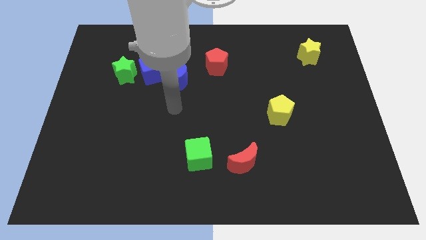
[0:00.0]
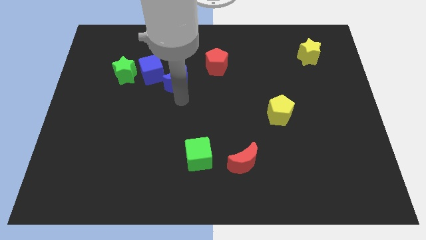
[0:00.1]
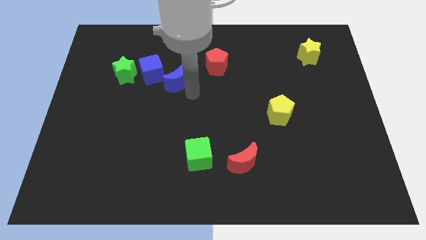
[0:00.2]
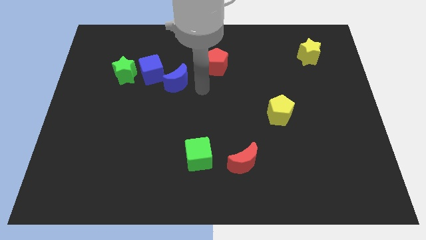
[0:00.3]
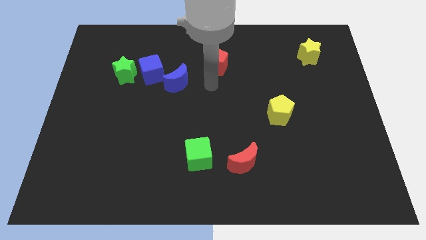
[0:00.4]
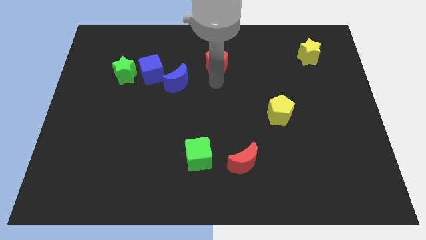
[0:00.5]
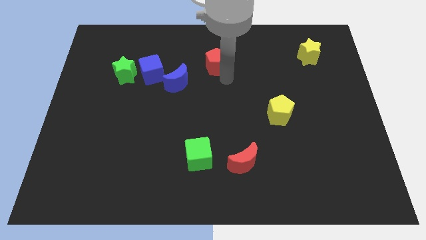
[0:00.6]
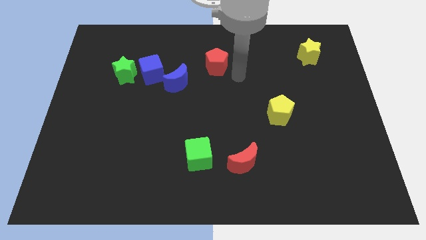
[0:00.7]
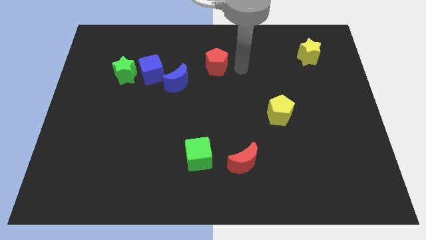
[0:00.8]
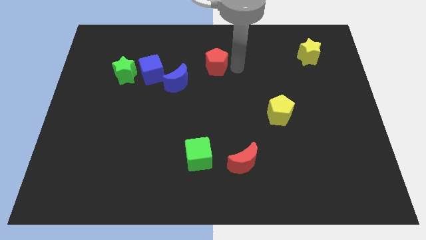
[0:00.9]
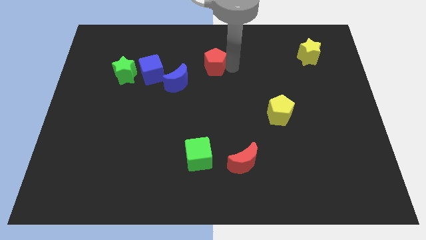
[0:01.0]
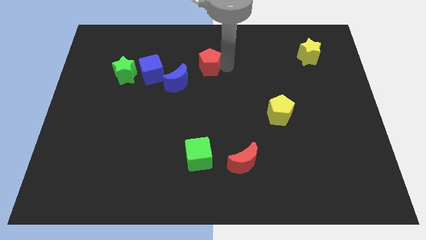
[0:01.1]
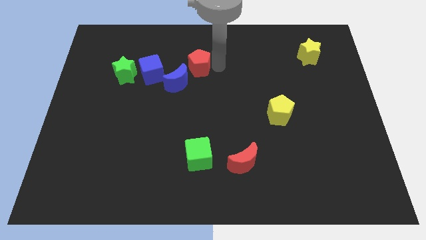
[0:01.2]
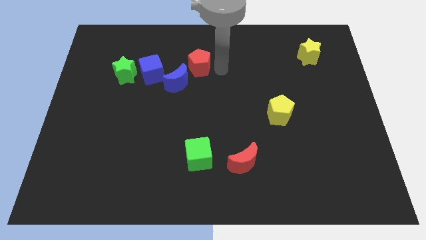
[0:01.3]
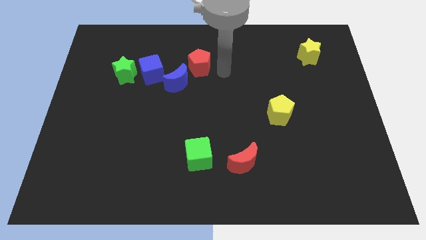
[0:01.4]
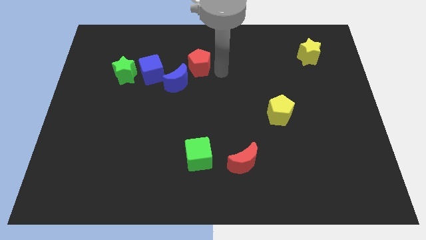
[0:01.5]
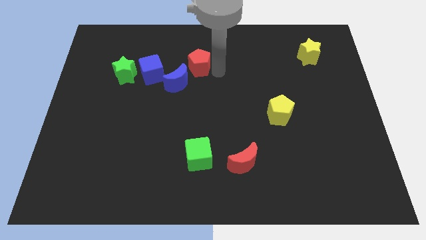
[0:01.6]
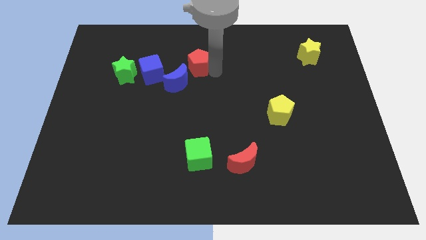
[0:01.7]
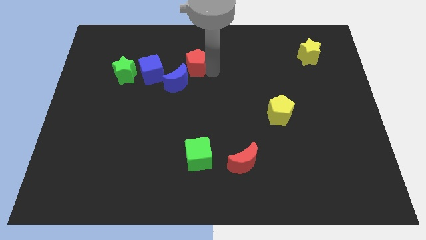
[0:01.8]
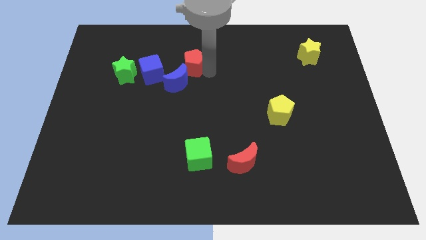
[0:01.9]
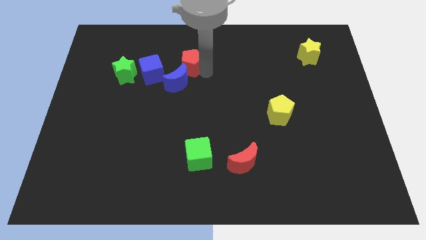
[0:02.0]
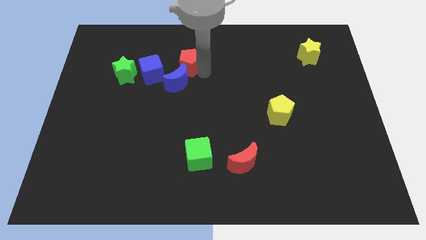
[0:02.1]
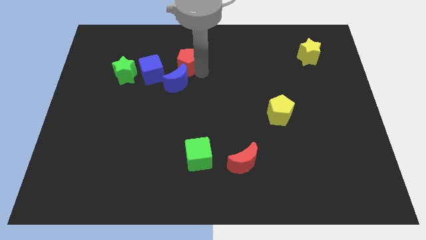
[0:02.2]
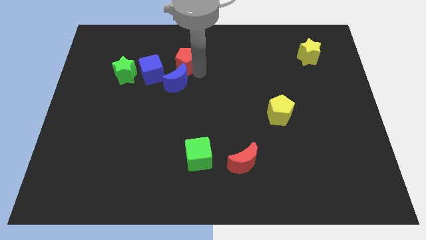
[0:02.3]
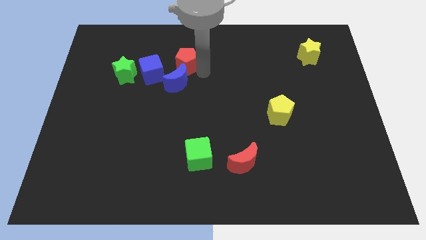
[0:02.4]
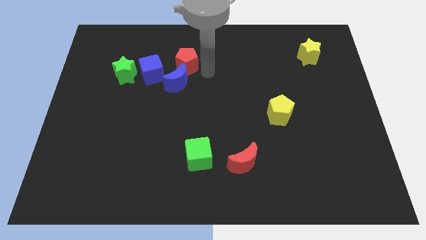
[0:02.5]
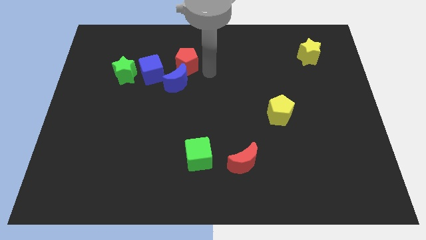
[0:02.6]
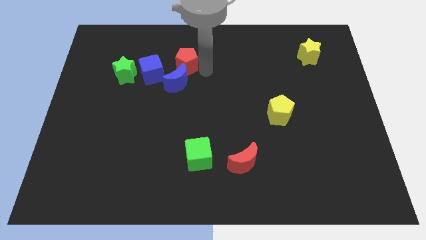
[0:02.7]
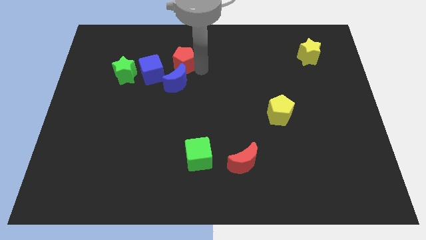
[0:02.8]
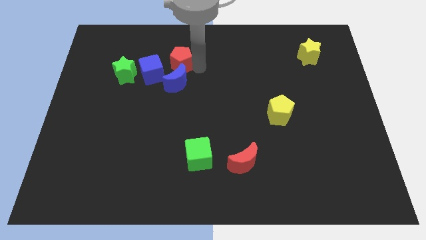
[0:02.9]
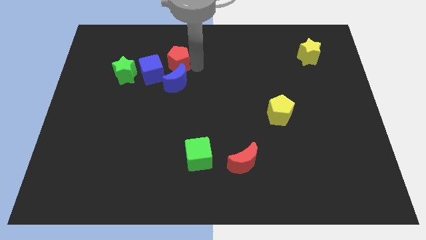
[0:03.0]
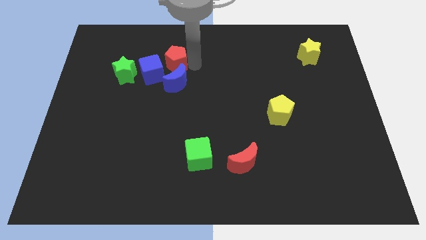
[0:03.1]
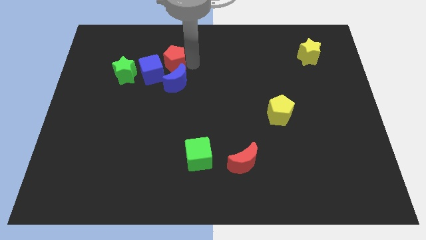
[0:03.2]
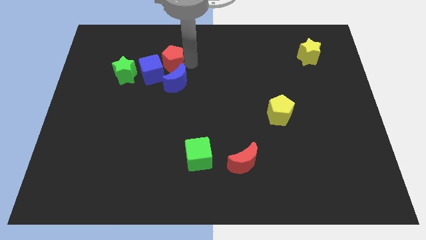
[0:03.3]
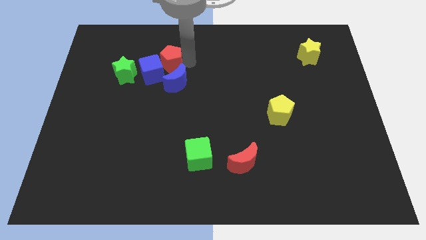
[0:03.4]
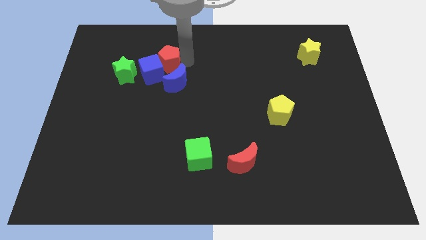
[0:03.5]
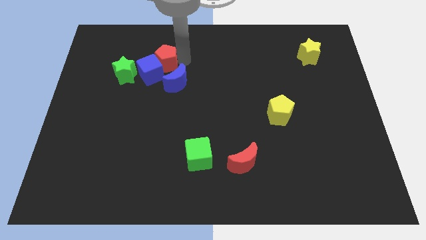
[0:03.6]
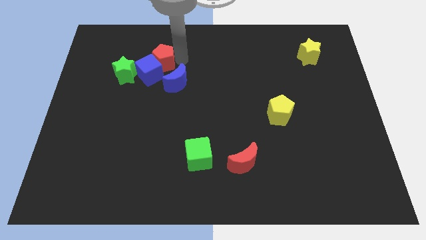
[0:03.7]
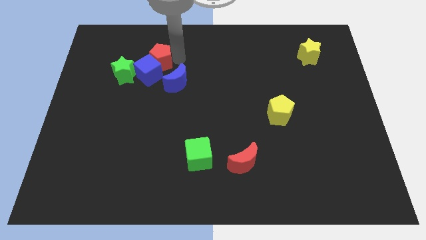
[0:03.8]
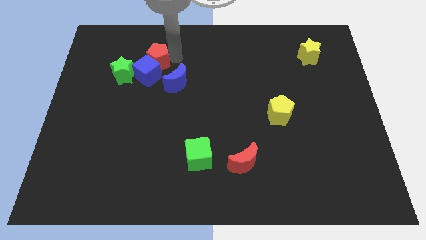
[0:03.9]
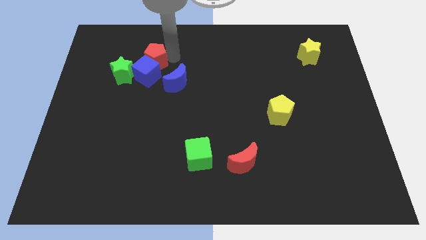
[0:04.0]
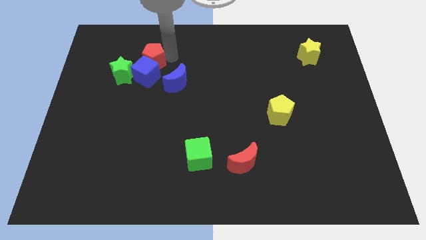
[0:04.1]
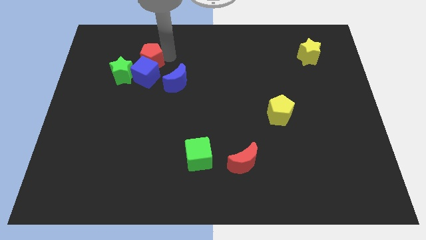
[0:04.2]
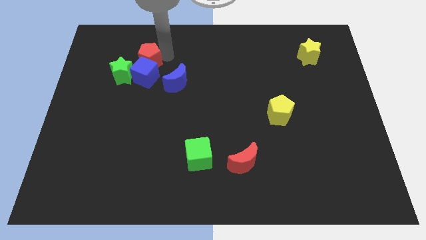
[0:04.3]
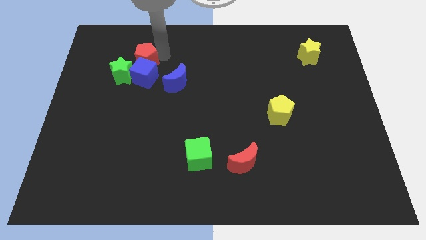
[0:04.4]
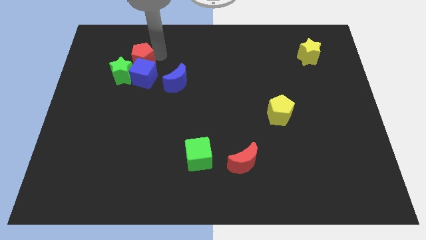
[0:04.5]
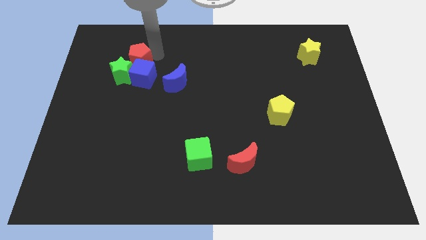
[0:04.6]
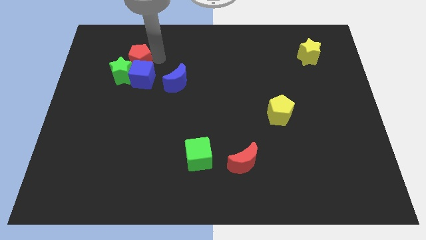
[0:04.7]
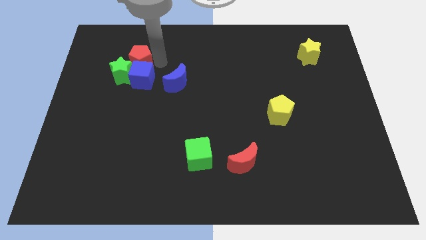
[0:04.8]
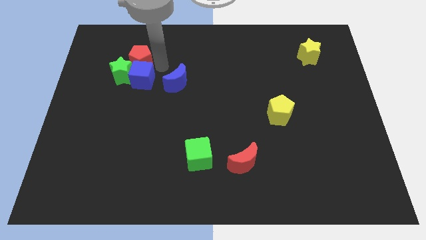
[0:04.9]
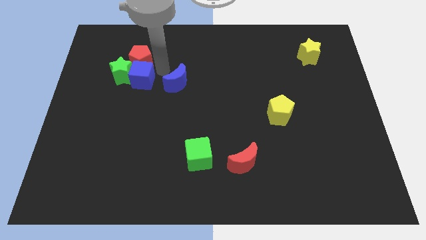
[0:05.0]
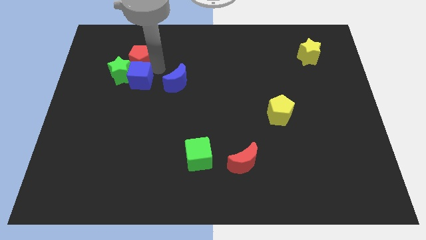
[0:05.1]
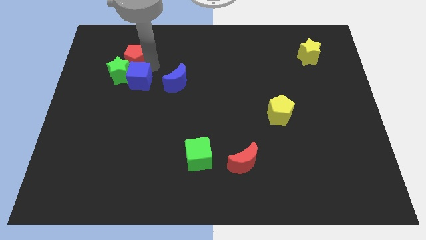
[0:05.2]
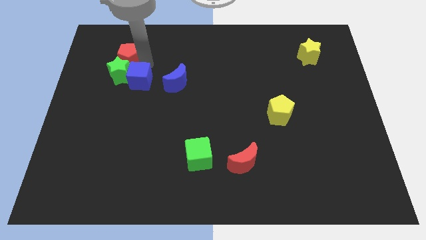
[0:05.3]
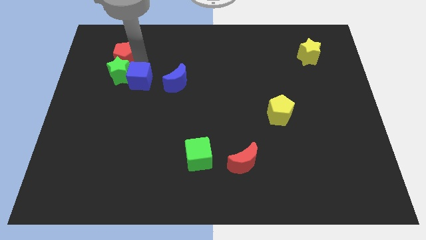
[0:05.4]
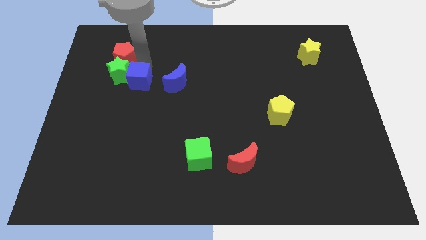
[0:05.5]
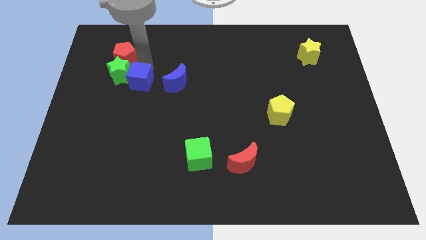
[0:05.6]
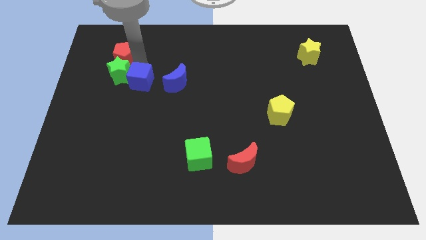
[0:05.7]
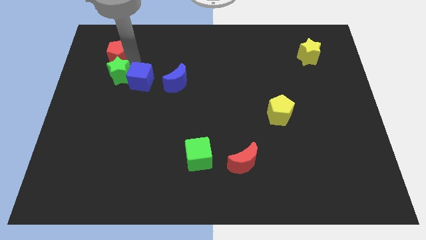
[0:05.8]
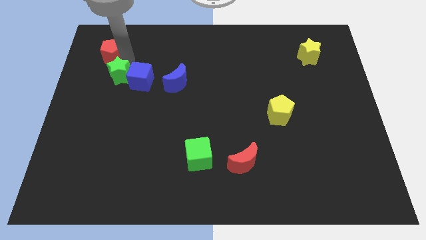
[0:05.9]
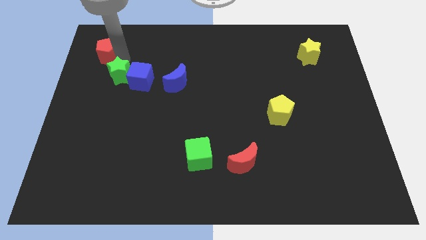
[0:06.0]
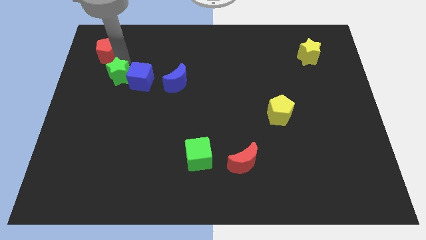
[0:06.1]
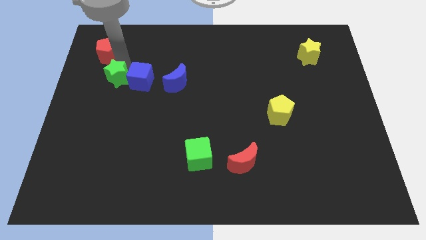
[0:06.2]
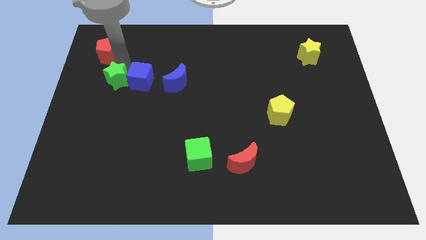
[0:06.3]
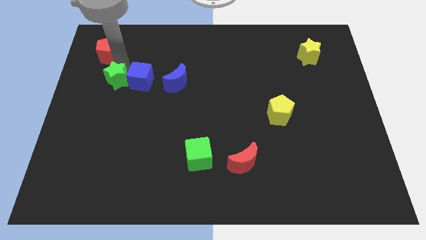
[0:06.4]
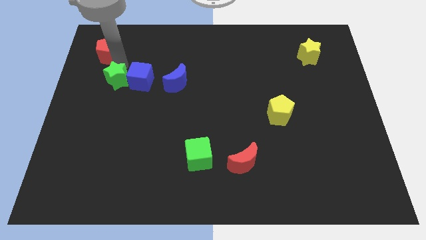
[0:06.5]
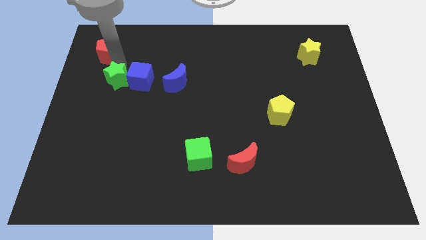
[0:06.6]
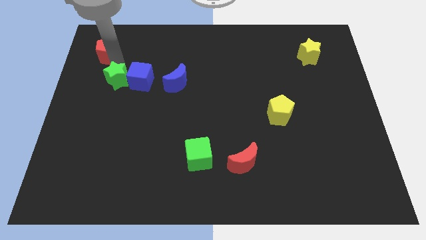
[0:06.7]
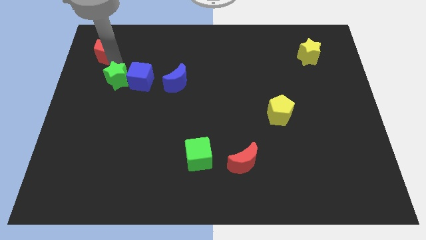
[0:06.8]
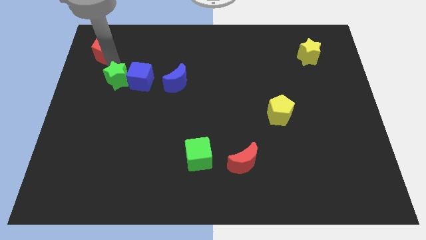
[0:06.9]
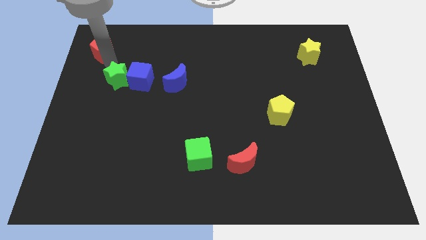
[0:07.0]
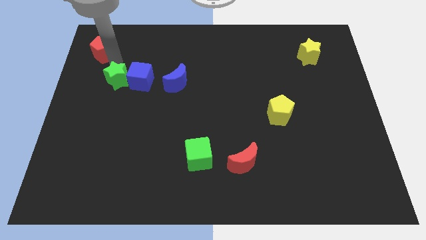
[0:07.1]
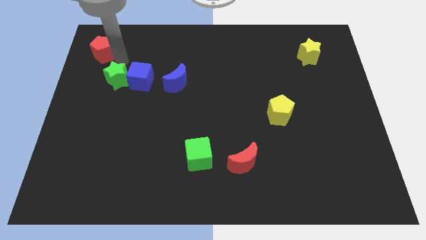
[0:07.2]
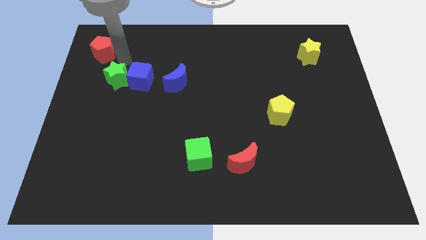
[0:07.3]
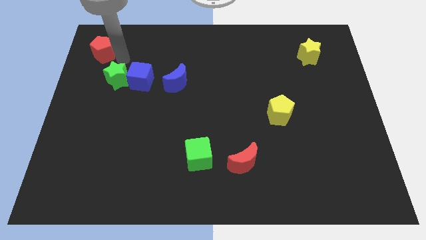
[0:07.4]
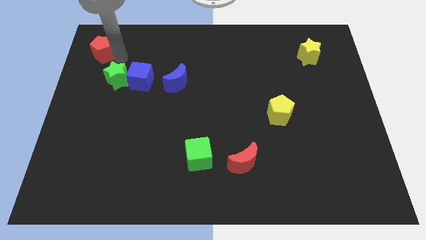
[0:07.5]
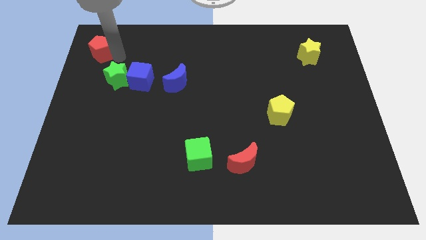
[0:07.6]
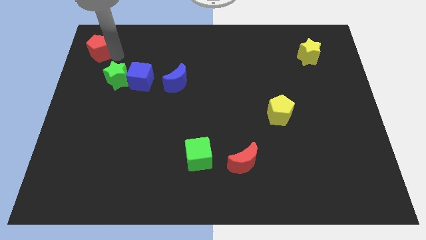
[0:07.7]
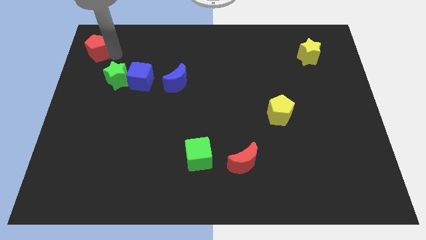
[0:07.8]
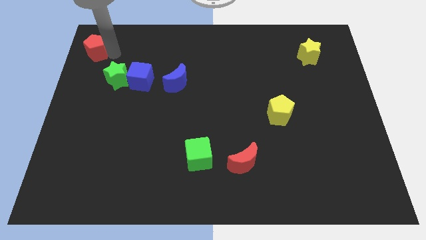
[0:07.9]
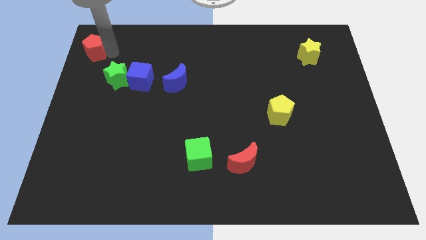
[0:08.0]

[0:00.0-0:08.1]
slide the red pentagon to the upper left corner
